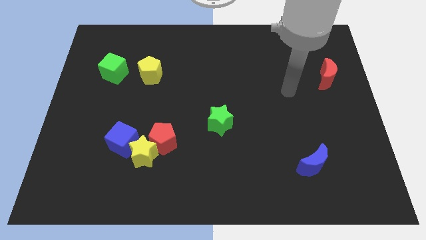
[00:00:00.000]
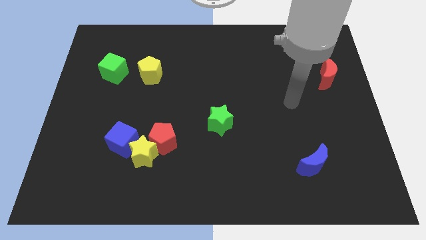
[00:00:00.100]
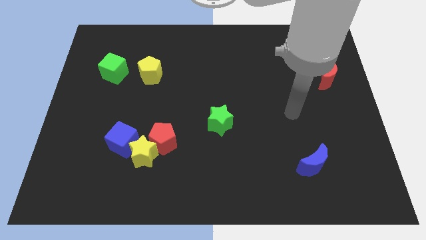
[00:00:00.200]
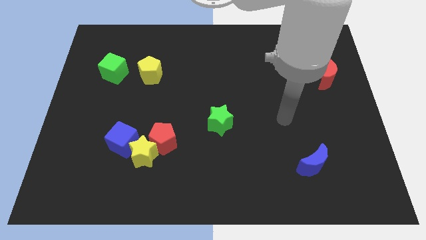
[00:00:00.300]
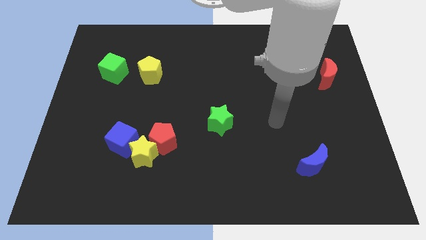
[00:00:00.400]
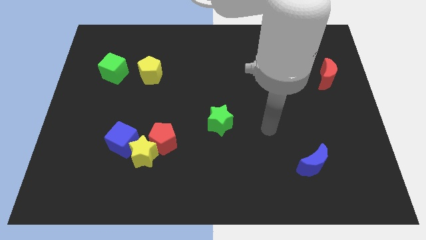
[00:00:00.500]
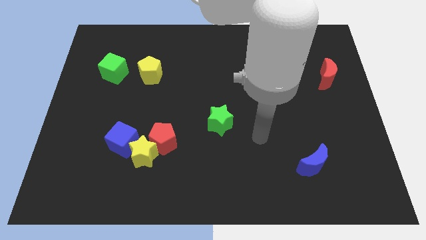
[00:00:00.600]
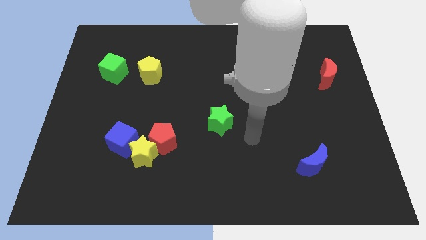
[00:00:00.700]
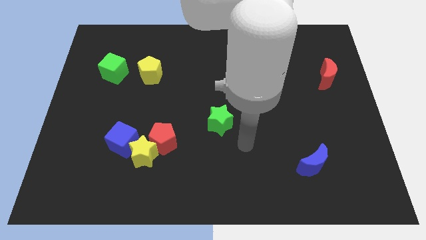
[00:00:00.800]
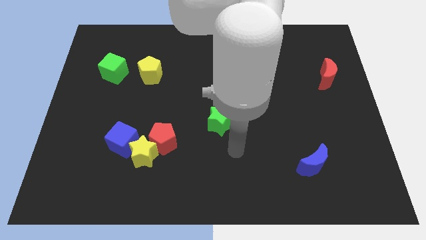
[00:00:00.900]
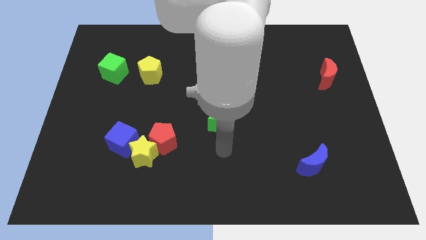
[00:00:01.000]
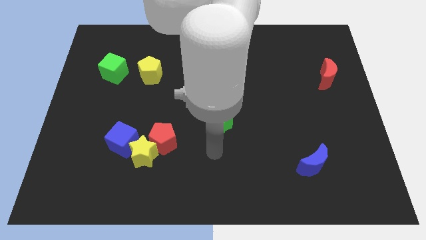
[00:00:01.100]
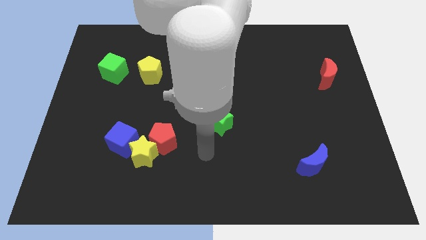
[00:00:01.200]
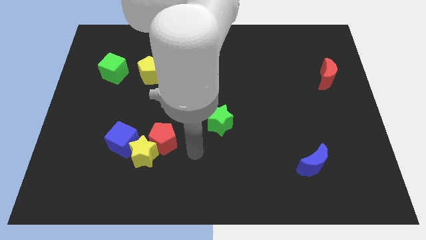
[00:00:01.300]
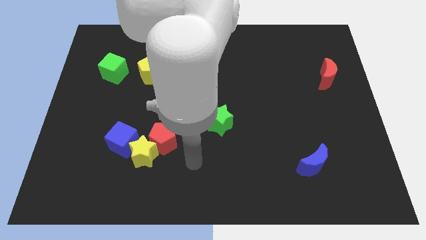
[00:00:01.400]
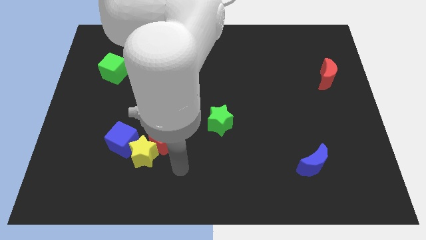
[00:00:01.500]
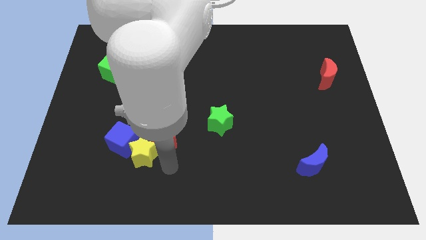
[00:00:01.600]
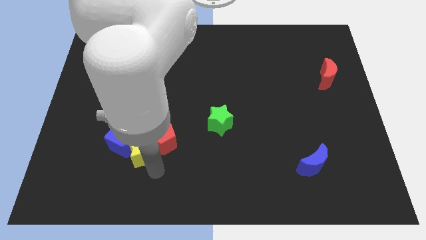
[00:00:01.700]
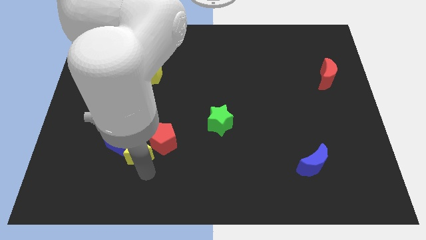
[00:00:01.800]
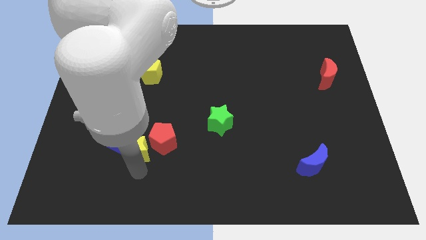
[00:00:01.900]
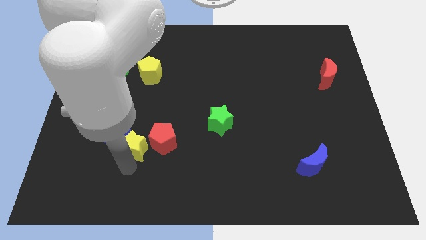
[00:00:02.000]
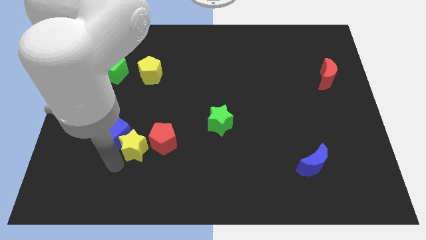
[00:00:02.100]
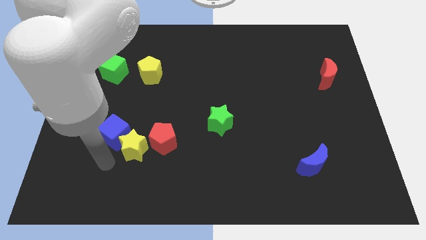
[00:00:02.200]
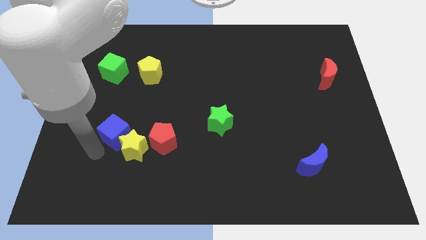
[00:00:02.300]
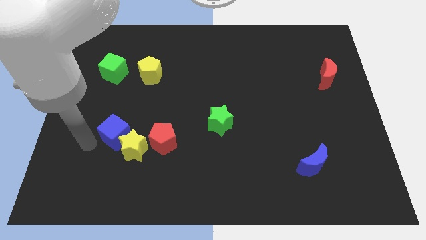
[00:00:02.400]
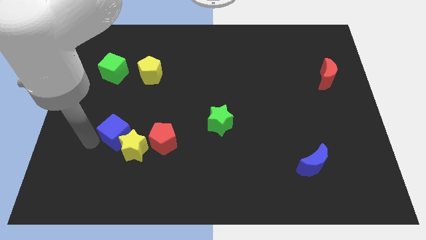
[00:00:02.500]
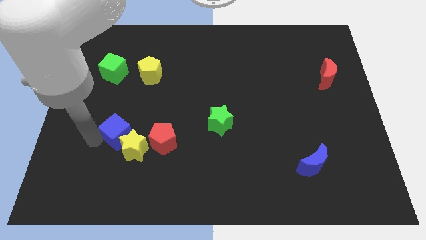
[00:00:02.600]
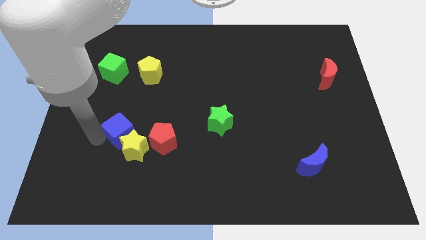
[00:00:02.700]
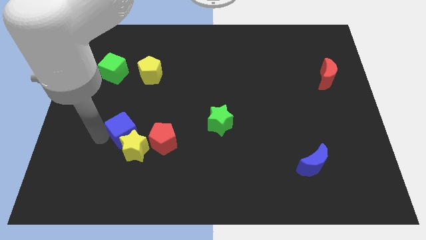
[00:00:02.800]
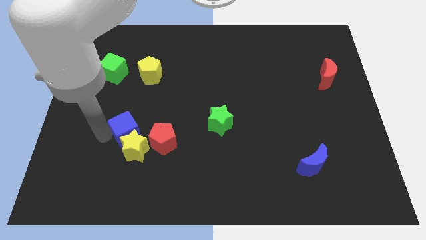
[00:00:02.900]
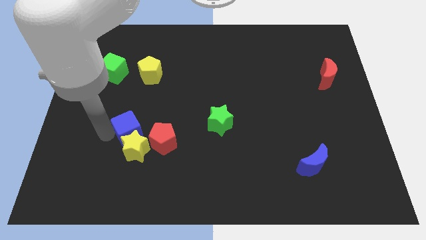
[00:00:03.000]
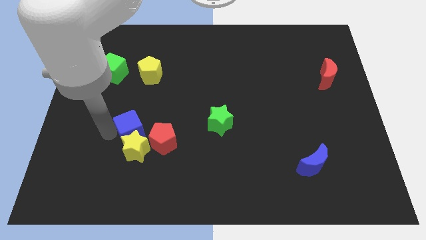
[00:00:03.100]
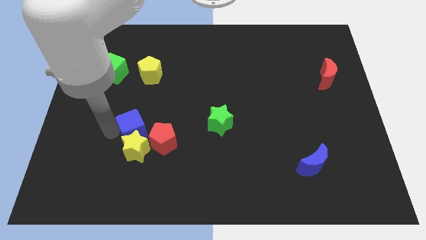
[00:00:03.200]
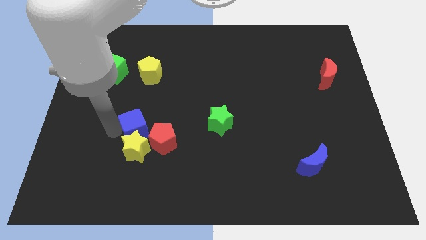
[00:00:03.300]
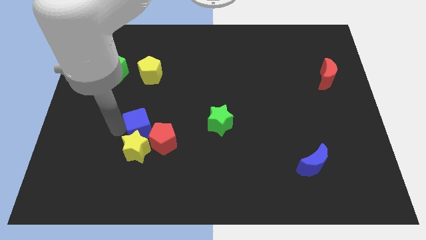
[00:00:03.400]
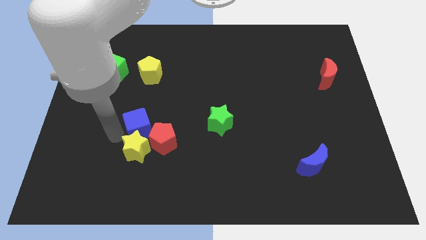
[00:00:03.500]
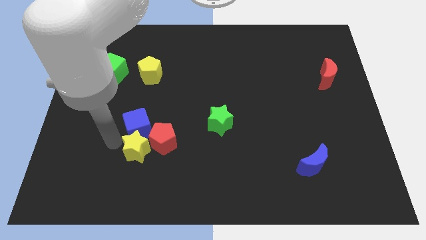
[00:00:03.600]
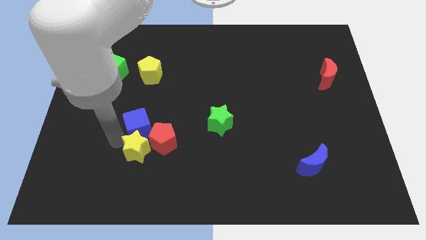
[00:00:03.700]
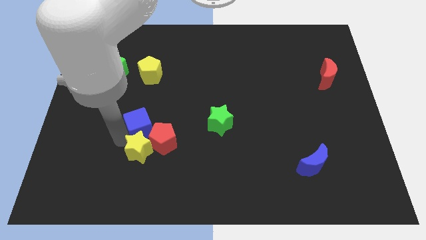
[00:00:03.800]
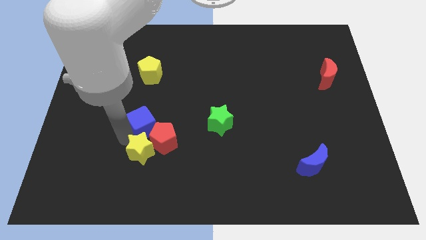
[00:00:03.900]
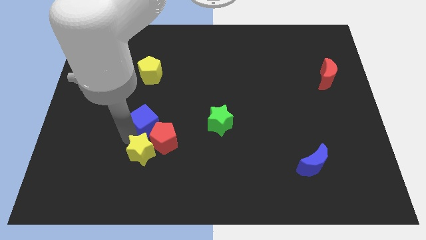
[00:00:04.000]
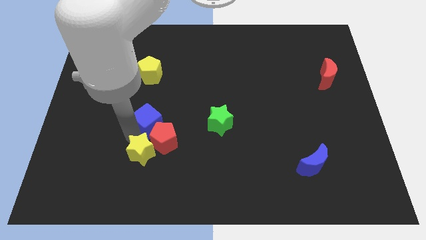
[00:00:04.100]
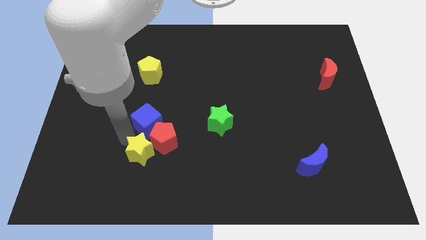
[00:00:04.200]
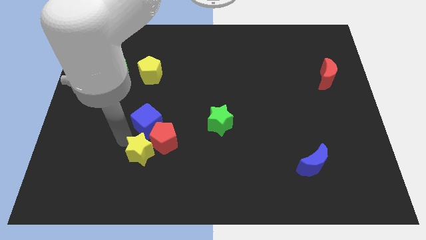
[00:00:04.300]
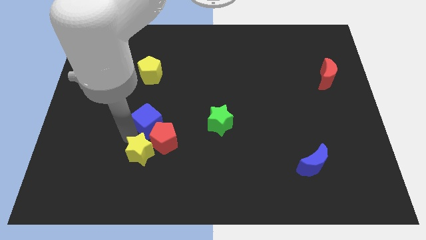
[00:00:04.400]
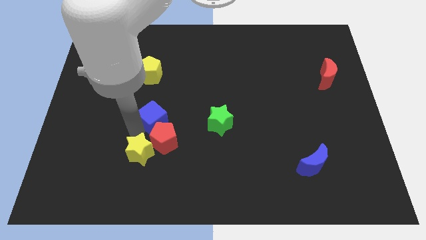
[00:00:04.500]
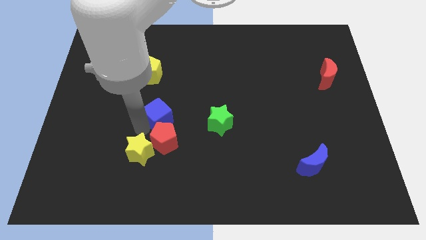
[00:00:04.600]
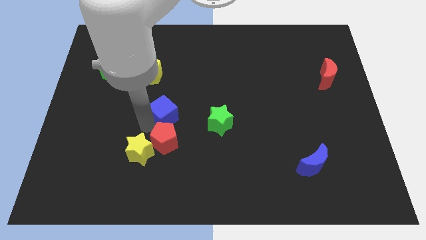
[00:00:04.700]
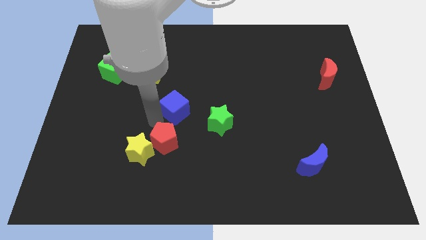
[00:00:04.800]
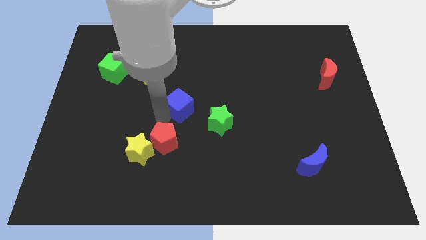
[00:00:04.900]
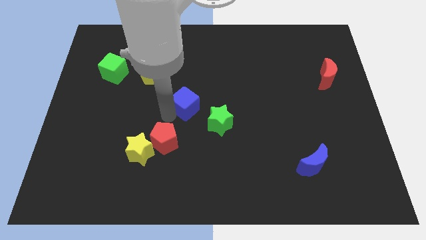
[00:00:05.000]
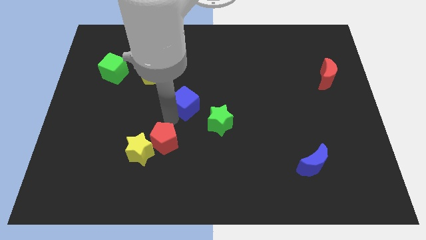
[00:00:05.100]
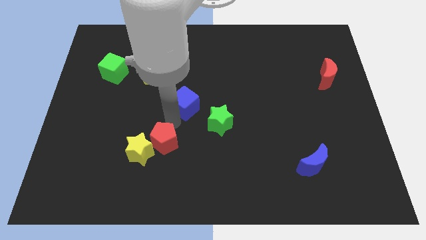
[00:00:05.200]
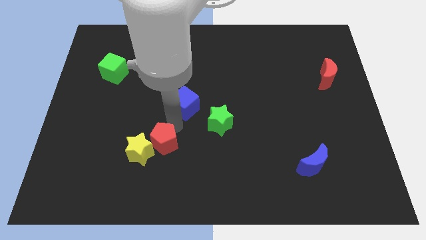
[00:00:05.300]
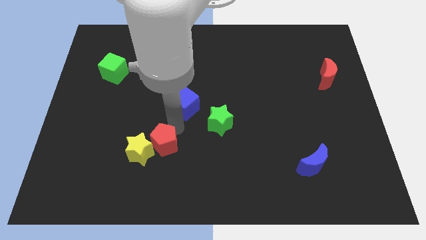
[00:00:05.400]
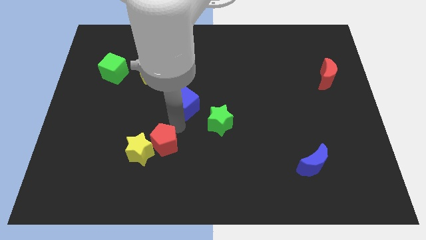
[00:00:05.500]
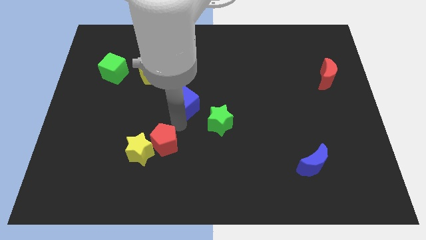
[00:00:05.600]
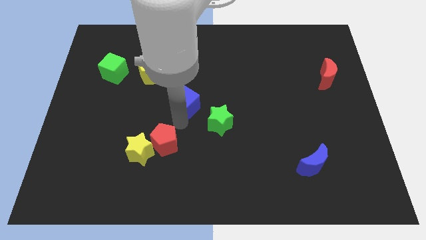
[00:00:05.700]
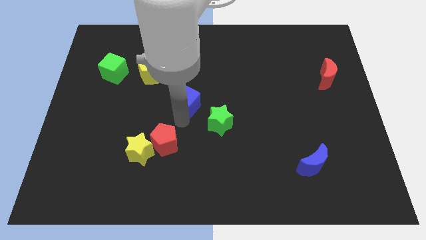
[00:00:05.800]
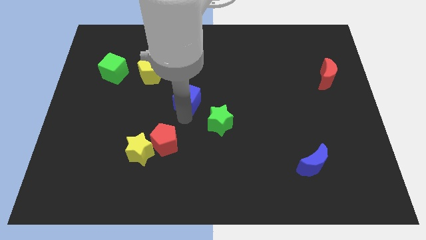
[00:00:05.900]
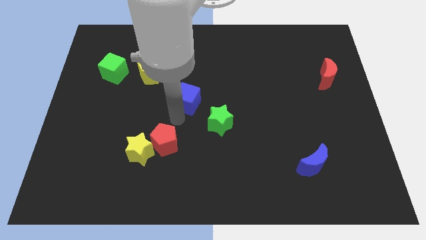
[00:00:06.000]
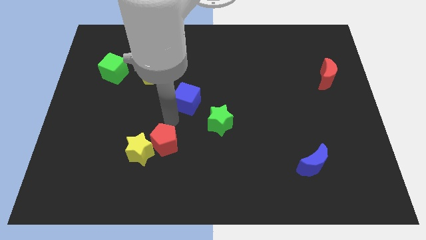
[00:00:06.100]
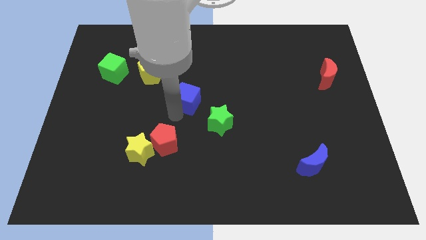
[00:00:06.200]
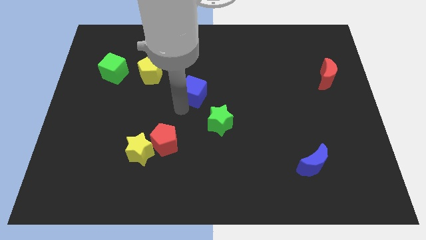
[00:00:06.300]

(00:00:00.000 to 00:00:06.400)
slide the blue cube upwards and then to the right

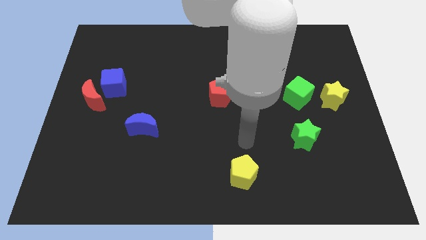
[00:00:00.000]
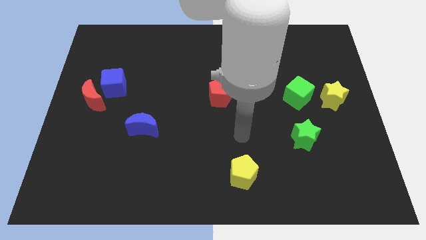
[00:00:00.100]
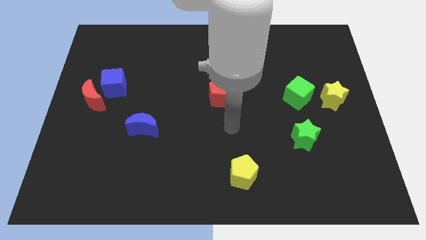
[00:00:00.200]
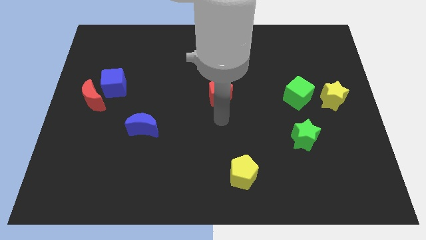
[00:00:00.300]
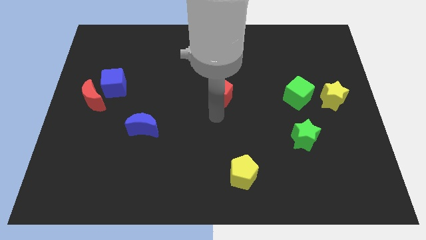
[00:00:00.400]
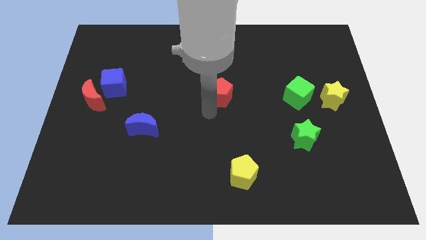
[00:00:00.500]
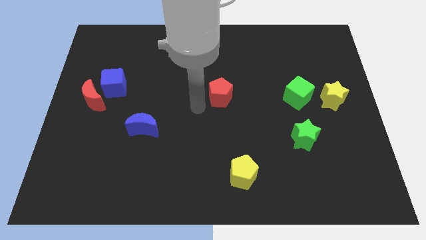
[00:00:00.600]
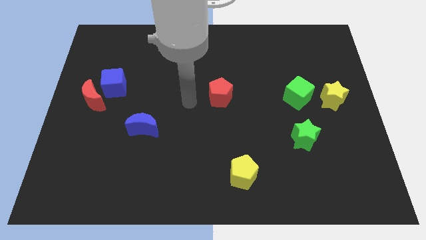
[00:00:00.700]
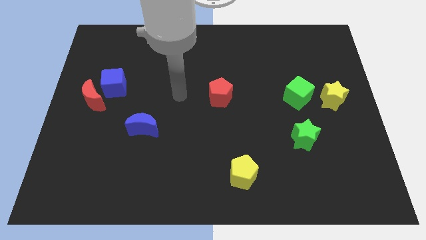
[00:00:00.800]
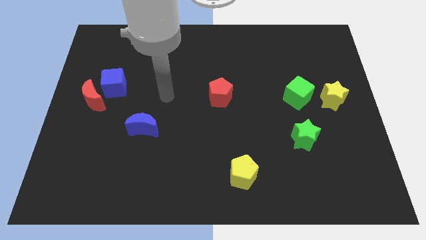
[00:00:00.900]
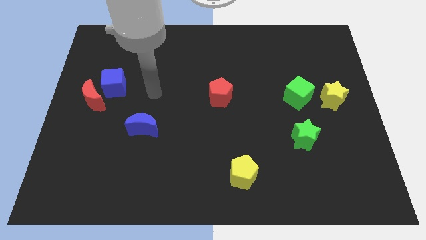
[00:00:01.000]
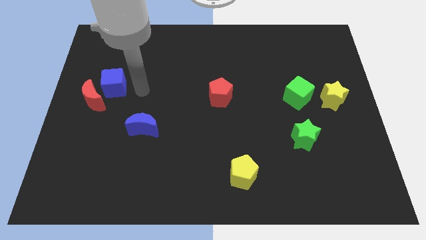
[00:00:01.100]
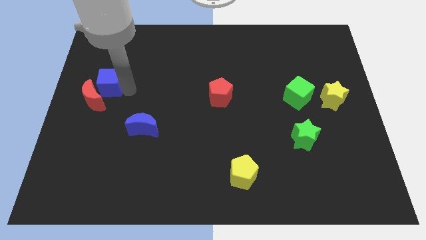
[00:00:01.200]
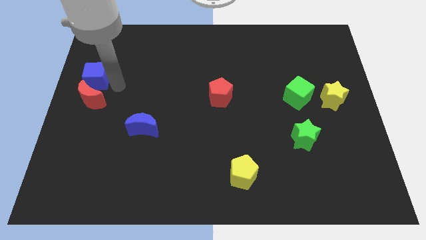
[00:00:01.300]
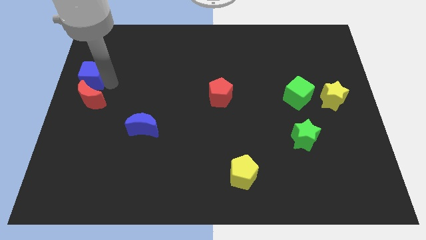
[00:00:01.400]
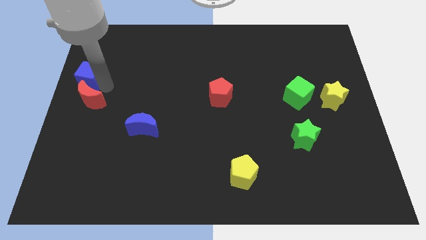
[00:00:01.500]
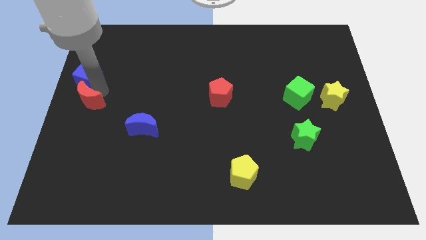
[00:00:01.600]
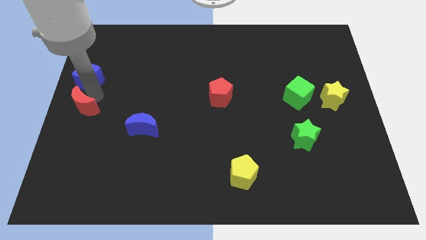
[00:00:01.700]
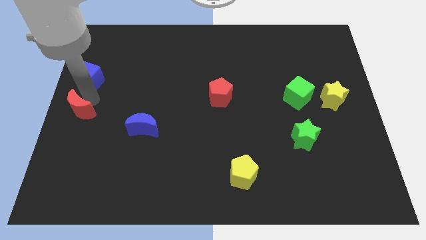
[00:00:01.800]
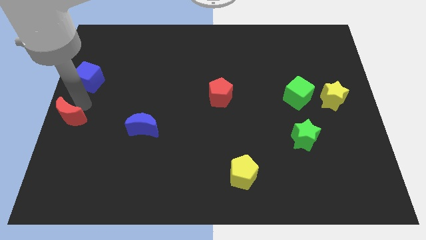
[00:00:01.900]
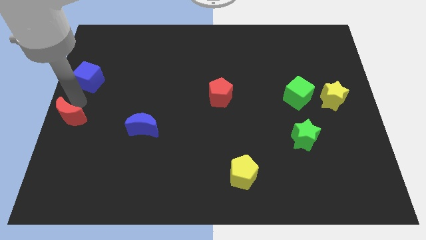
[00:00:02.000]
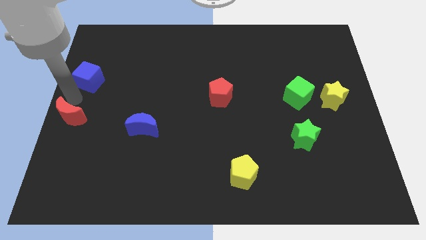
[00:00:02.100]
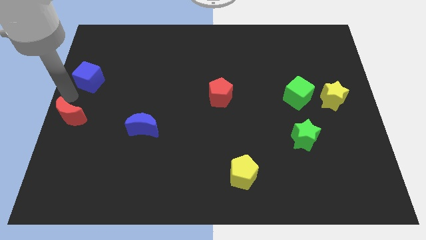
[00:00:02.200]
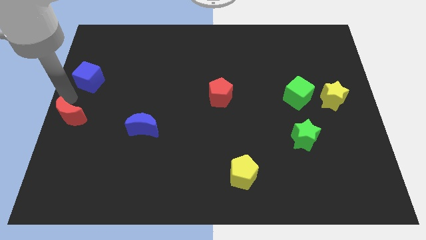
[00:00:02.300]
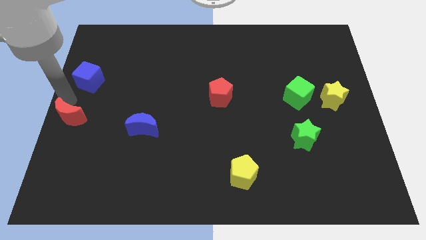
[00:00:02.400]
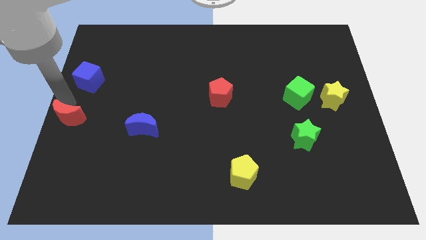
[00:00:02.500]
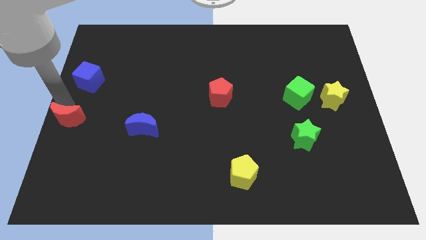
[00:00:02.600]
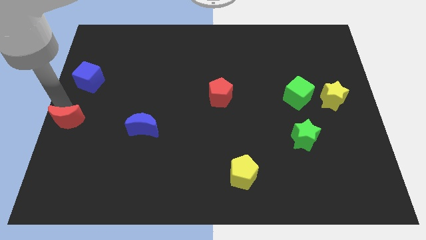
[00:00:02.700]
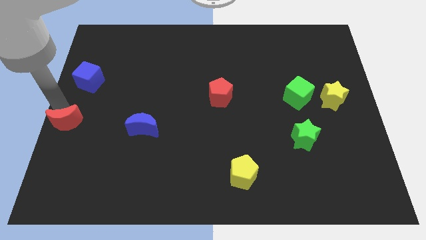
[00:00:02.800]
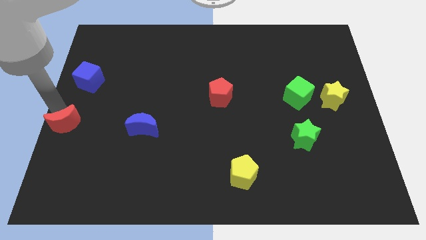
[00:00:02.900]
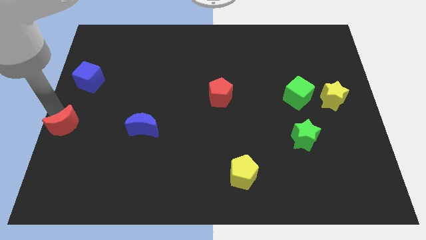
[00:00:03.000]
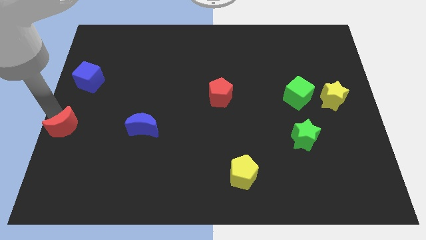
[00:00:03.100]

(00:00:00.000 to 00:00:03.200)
slide the red moon downwards a bit
